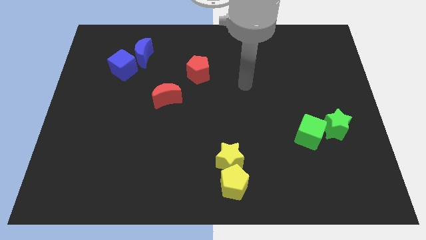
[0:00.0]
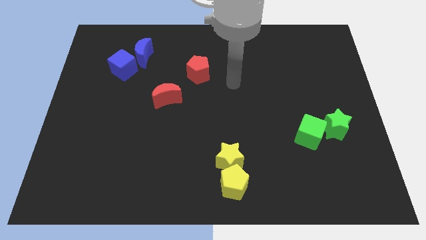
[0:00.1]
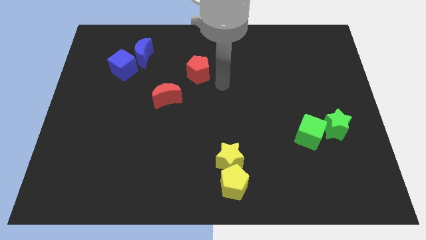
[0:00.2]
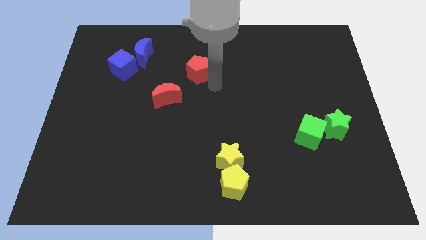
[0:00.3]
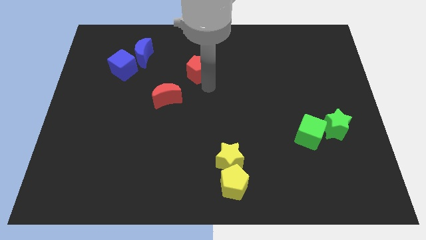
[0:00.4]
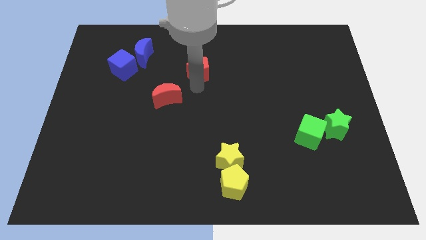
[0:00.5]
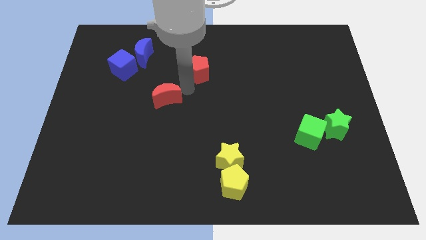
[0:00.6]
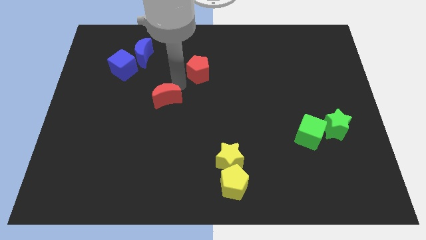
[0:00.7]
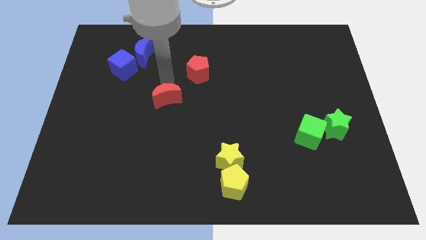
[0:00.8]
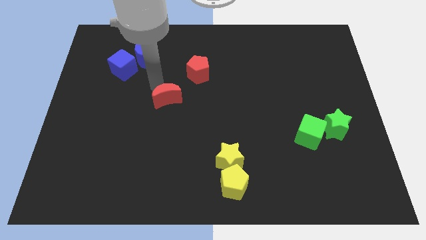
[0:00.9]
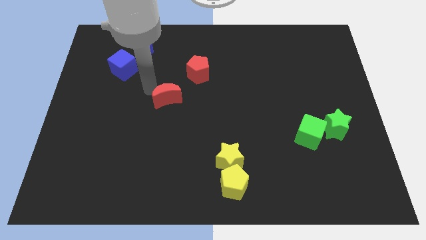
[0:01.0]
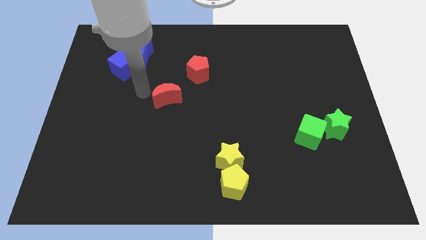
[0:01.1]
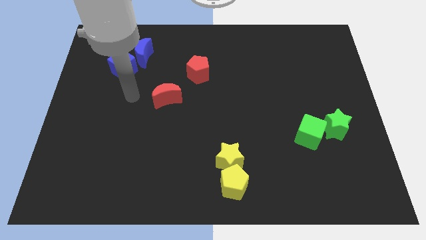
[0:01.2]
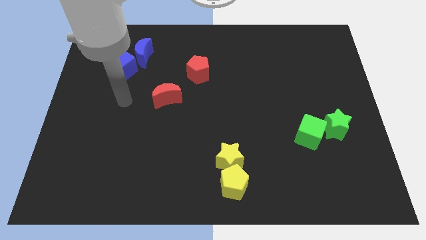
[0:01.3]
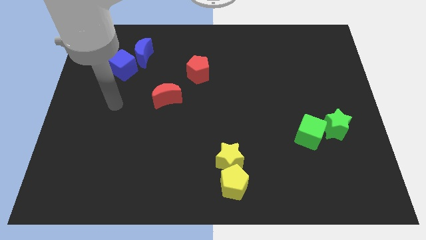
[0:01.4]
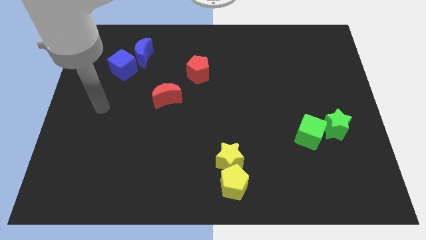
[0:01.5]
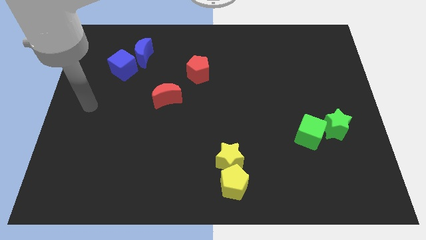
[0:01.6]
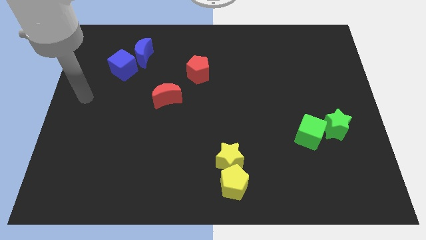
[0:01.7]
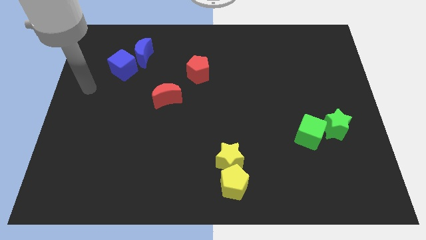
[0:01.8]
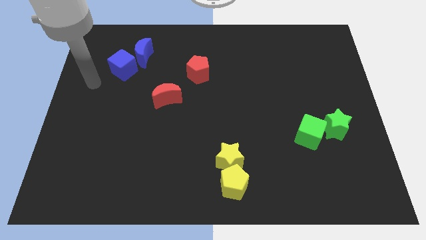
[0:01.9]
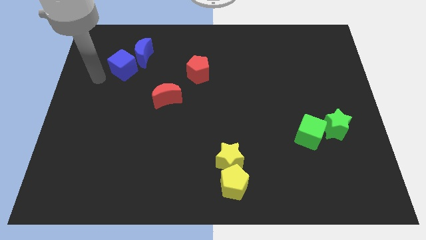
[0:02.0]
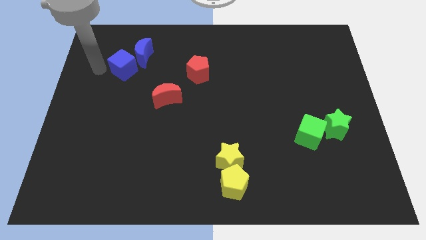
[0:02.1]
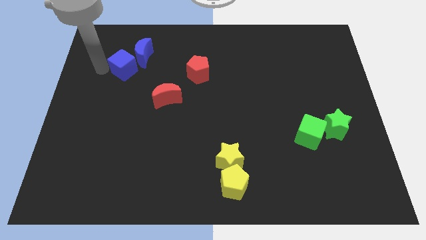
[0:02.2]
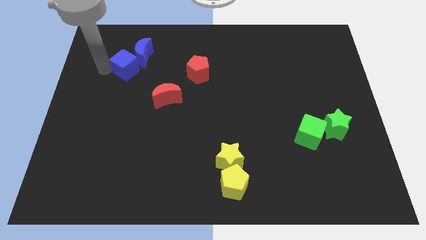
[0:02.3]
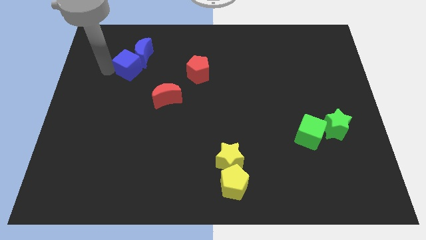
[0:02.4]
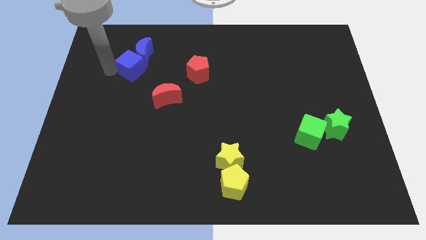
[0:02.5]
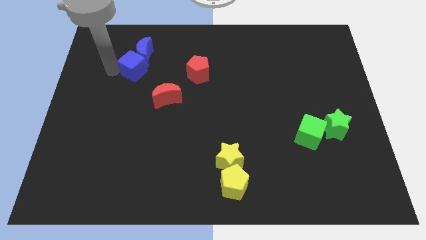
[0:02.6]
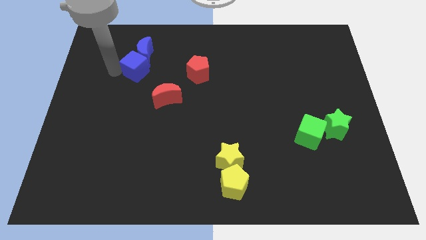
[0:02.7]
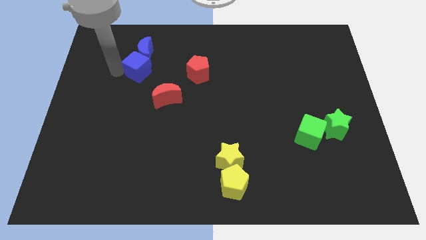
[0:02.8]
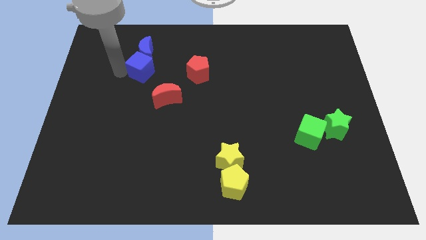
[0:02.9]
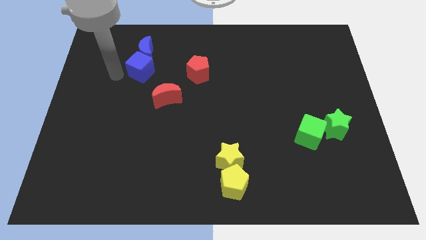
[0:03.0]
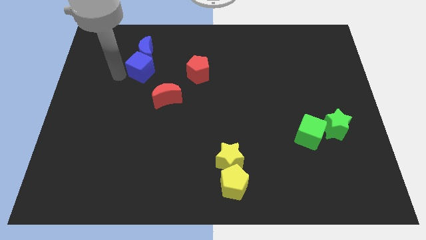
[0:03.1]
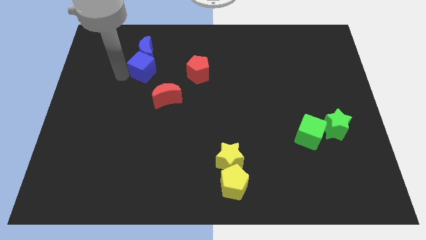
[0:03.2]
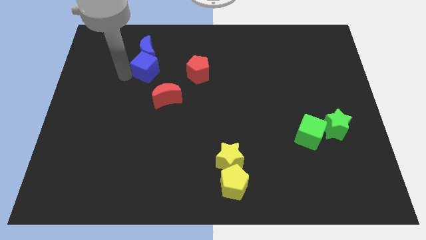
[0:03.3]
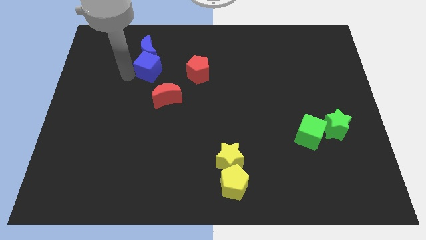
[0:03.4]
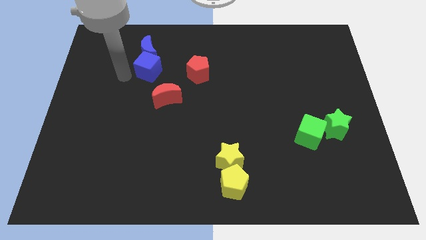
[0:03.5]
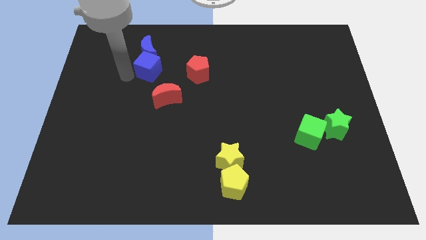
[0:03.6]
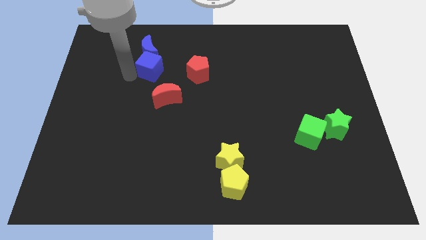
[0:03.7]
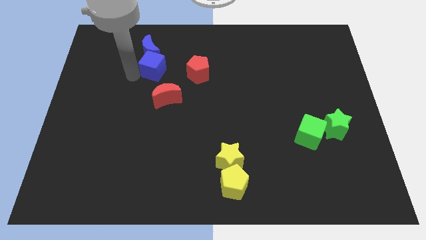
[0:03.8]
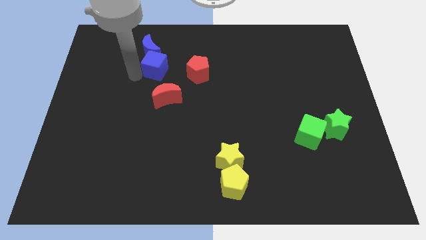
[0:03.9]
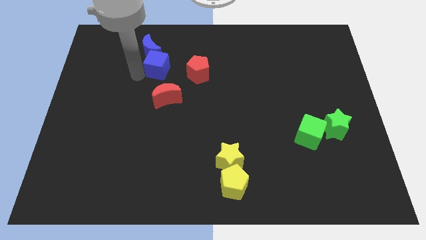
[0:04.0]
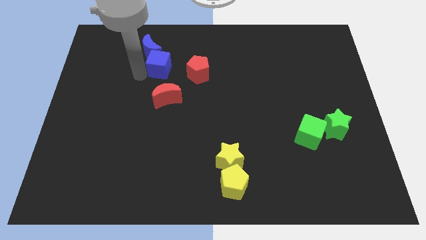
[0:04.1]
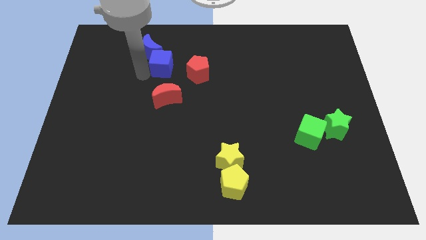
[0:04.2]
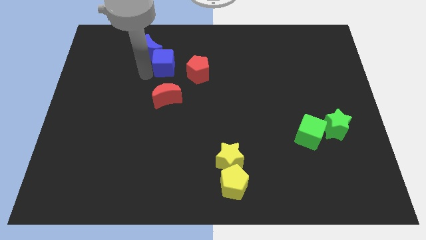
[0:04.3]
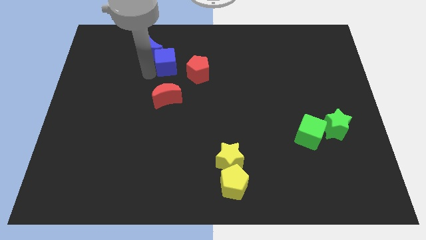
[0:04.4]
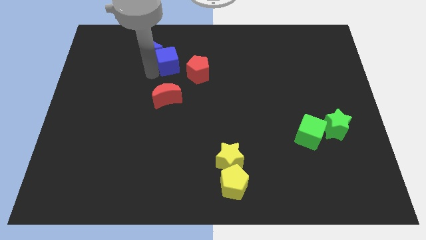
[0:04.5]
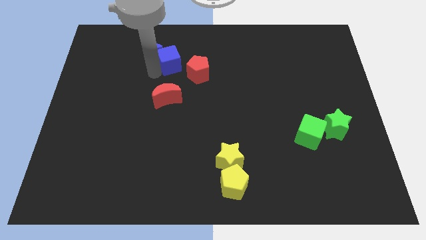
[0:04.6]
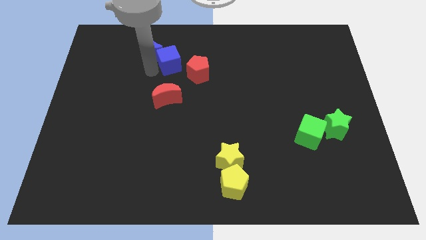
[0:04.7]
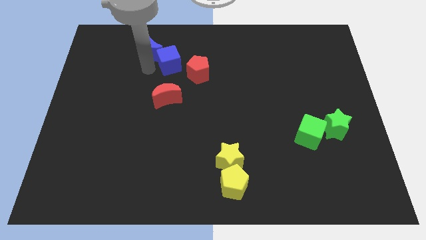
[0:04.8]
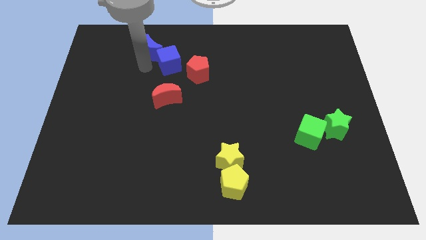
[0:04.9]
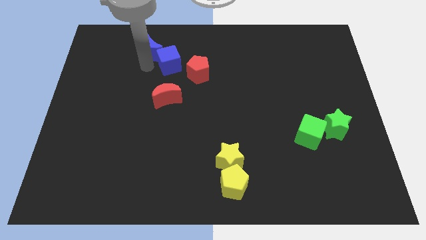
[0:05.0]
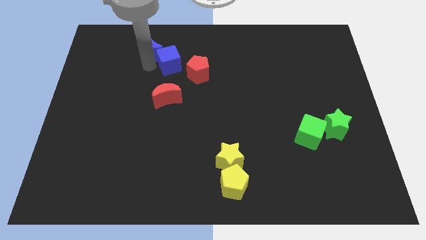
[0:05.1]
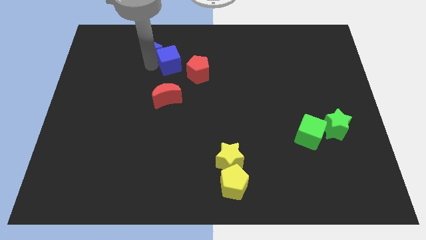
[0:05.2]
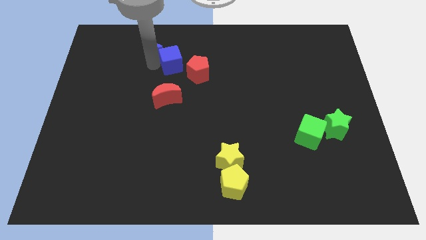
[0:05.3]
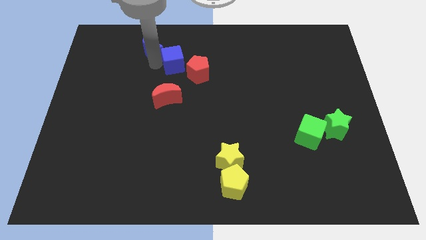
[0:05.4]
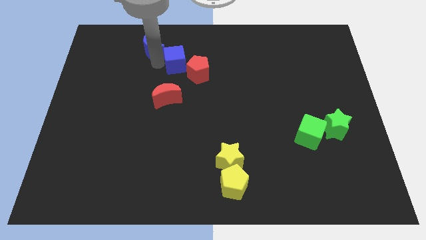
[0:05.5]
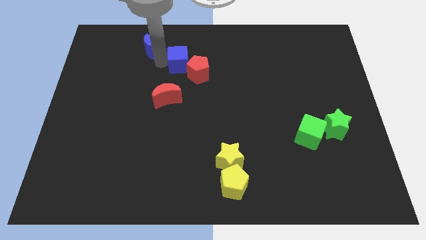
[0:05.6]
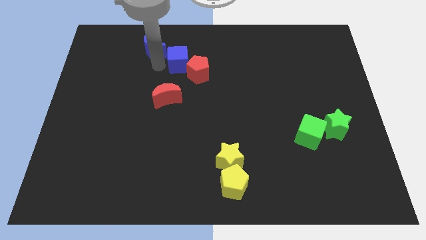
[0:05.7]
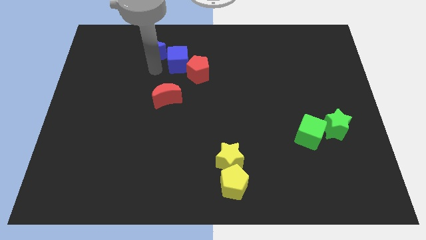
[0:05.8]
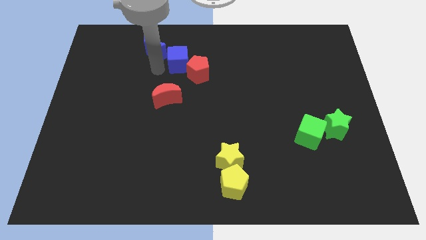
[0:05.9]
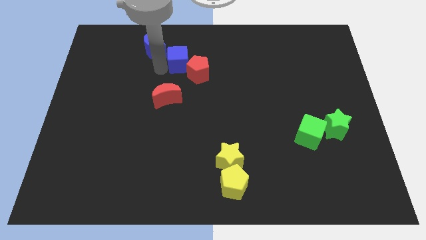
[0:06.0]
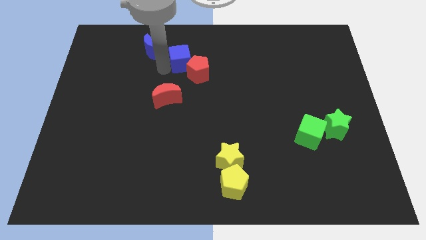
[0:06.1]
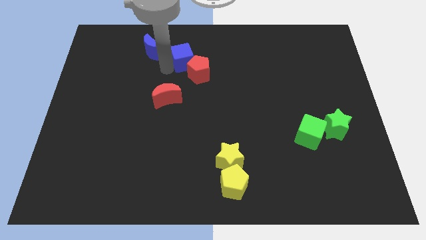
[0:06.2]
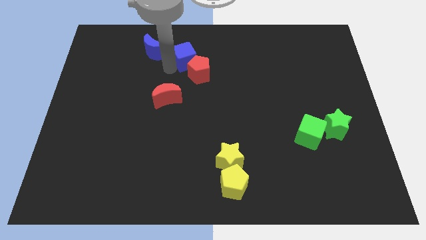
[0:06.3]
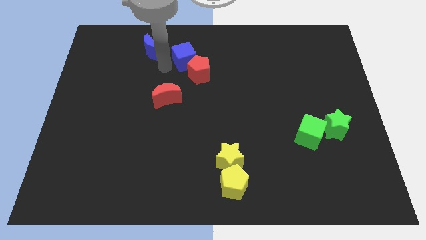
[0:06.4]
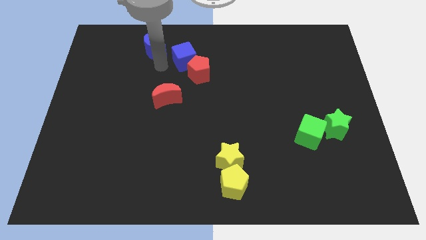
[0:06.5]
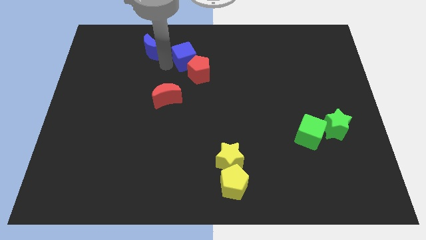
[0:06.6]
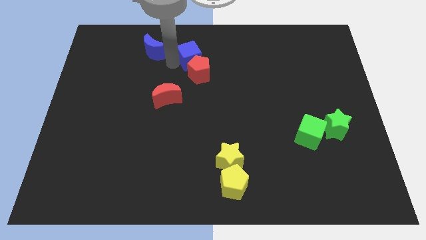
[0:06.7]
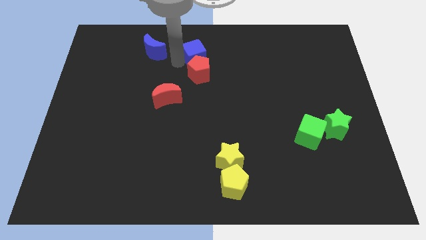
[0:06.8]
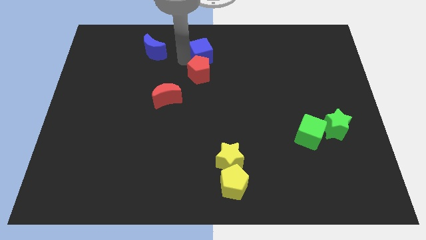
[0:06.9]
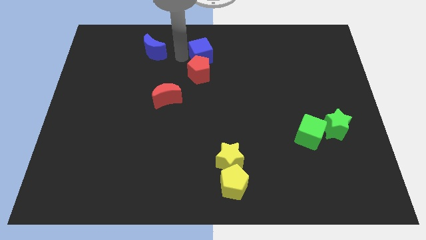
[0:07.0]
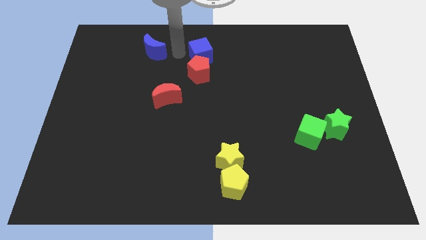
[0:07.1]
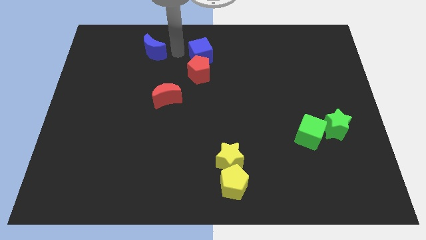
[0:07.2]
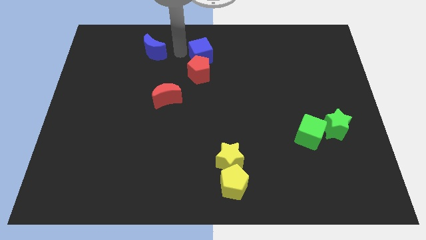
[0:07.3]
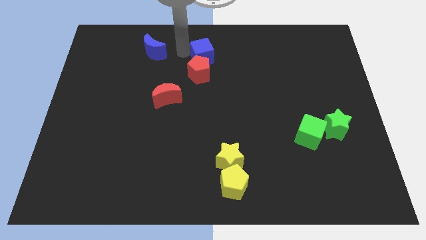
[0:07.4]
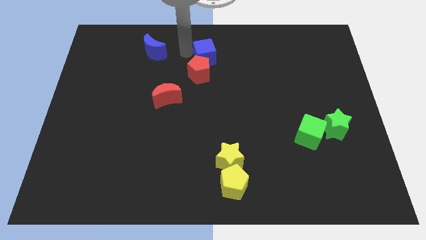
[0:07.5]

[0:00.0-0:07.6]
slide the blue cube right

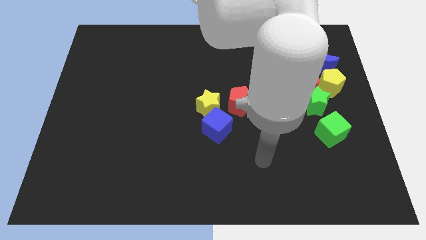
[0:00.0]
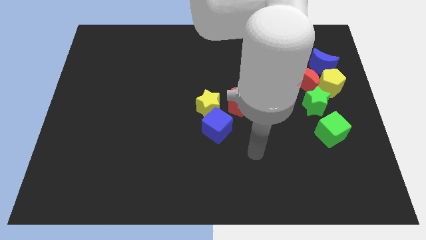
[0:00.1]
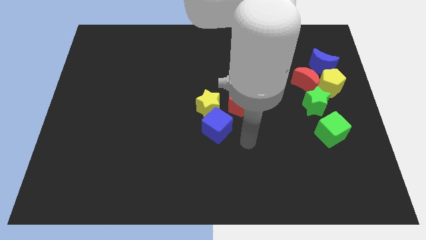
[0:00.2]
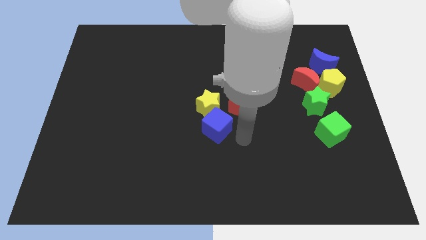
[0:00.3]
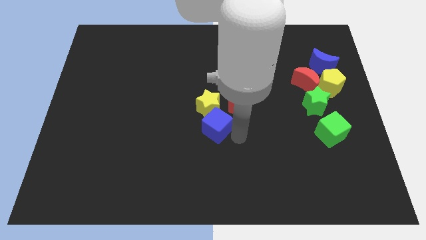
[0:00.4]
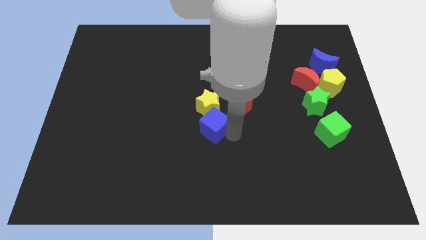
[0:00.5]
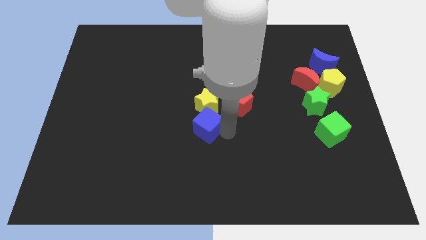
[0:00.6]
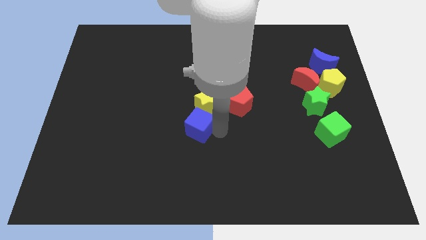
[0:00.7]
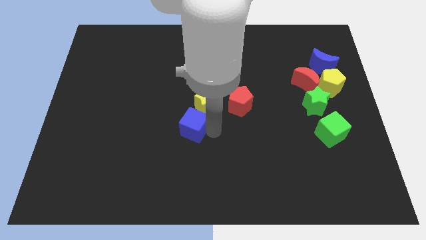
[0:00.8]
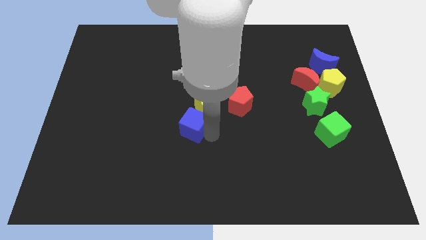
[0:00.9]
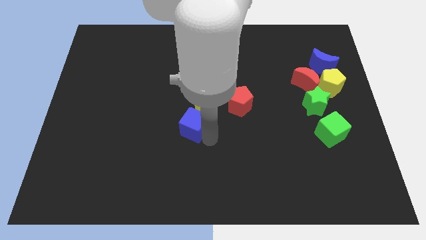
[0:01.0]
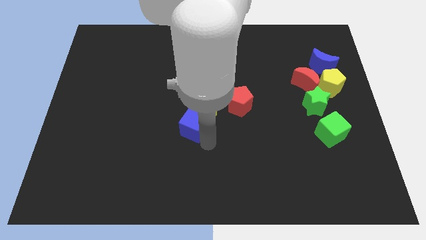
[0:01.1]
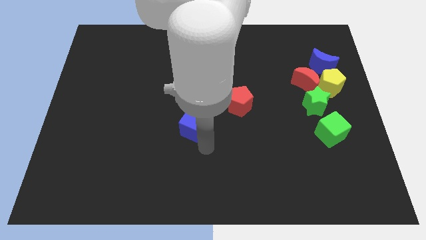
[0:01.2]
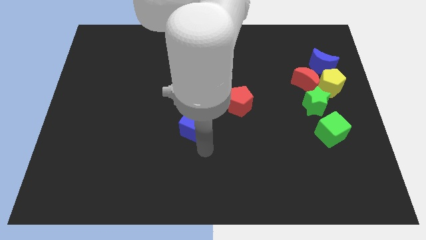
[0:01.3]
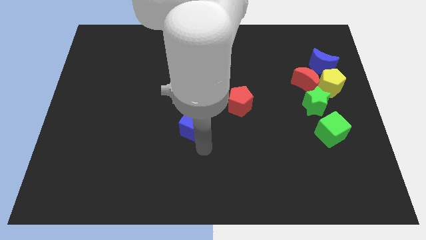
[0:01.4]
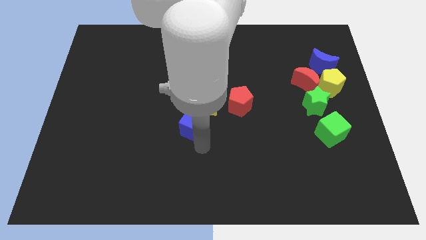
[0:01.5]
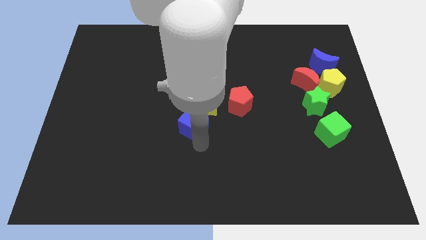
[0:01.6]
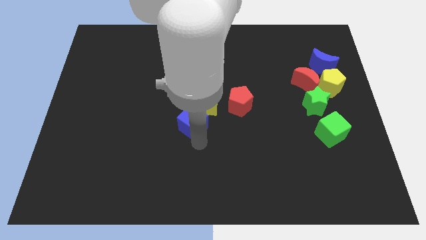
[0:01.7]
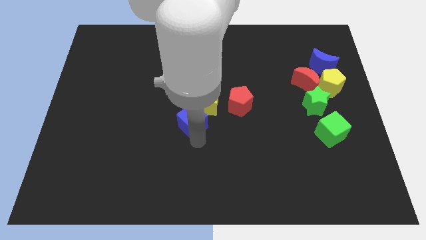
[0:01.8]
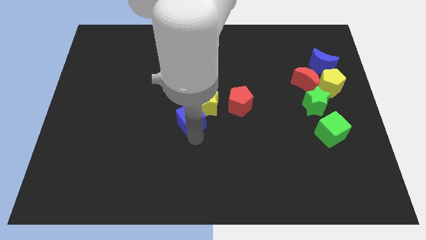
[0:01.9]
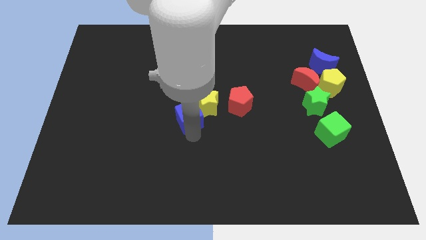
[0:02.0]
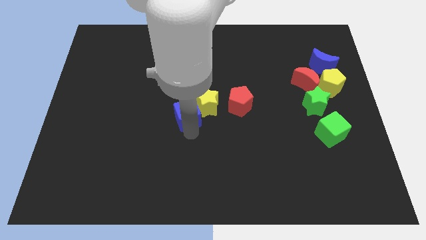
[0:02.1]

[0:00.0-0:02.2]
slightly slide the blue cube diagonally upwards and to the left
